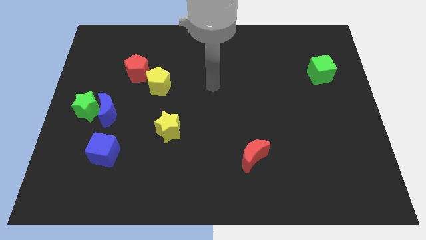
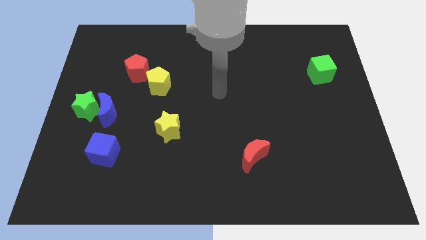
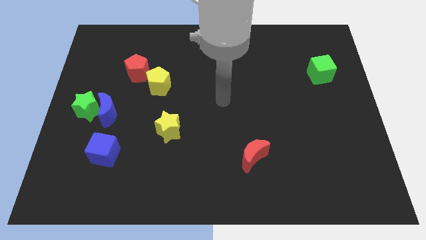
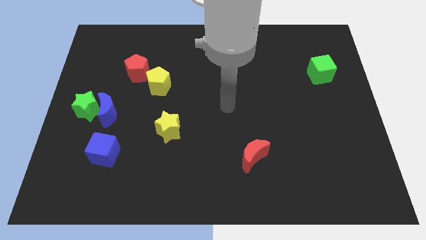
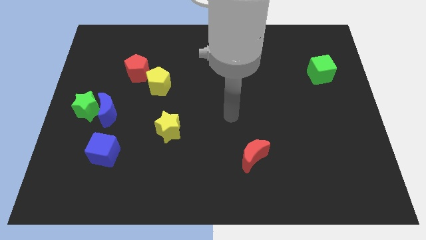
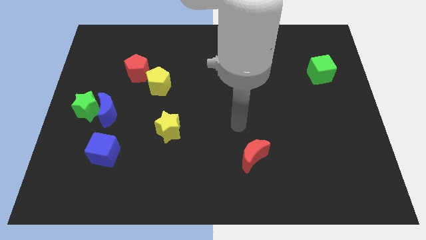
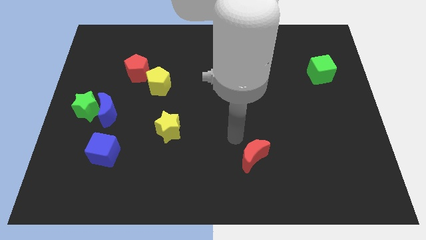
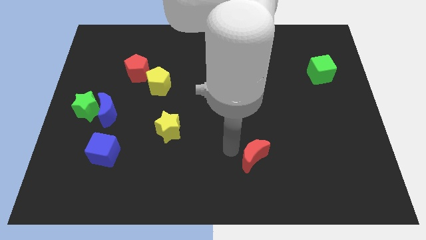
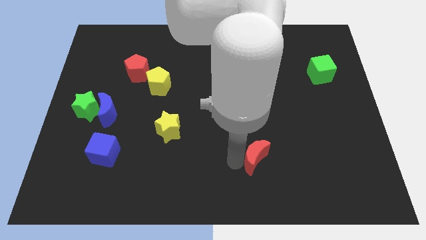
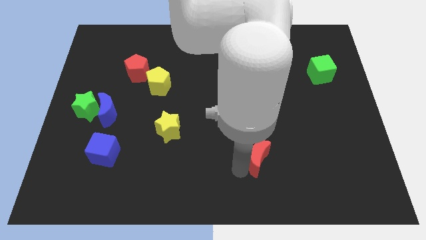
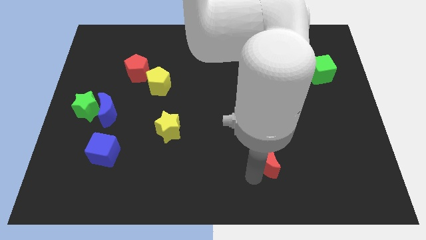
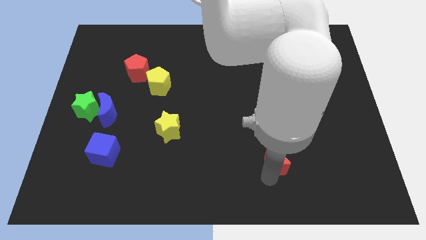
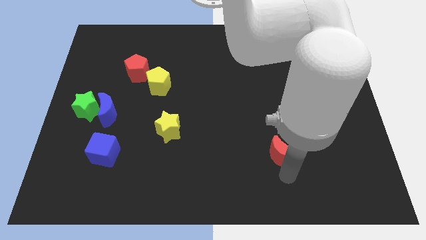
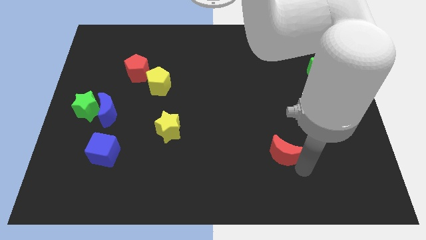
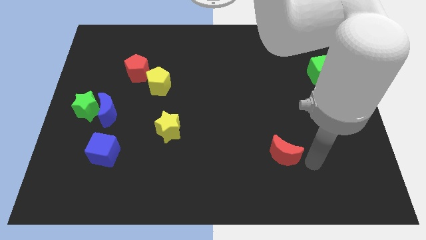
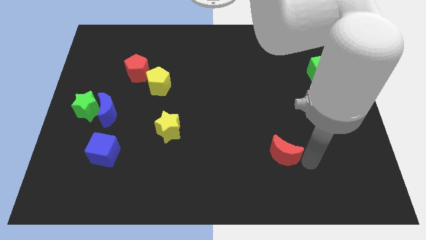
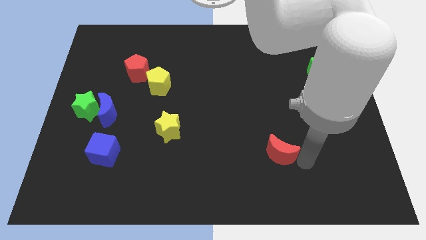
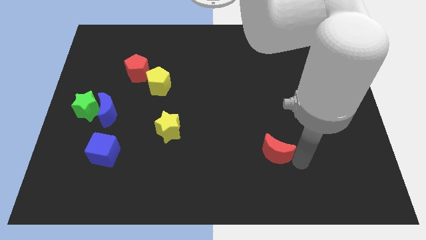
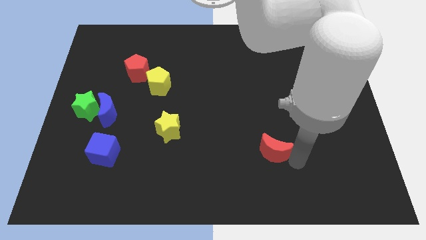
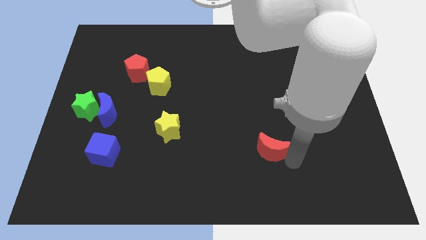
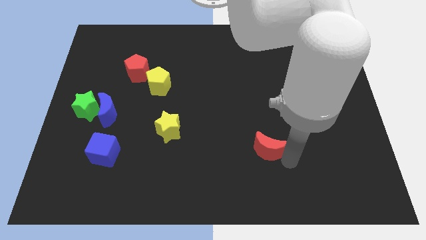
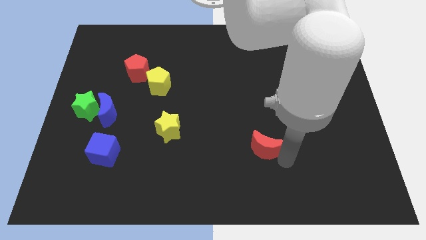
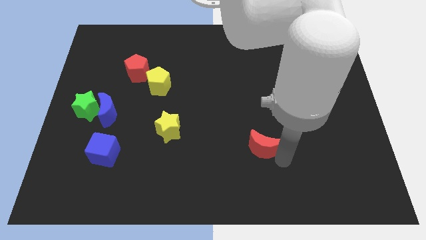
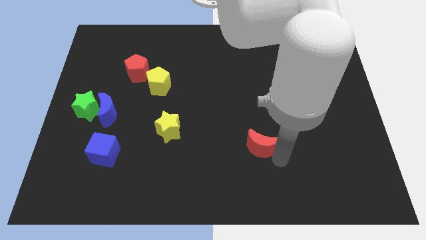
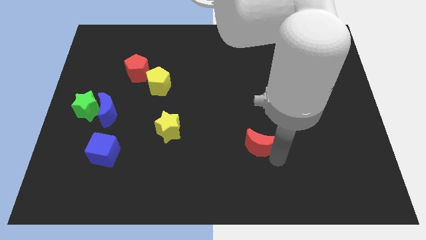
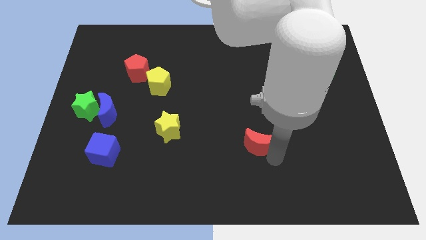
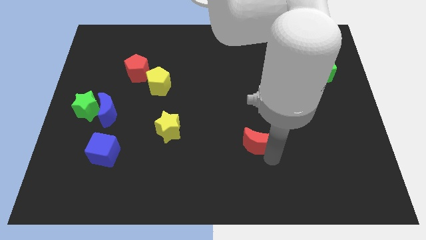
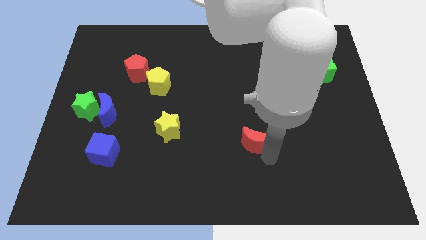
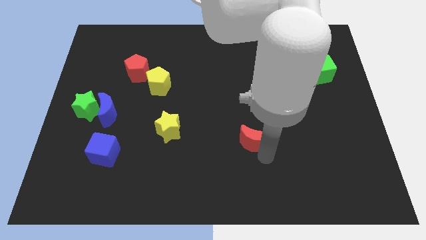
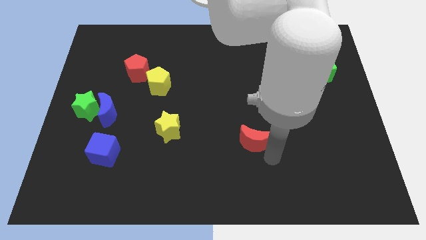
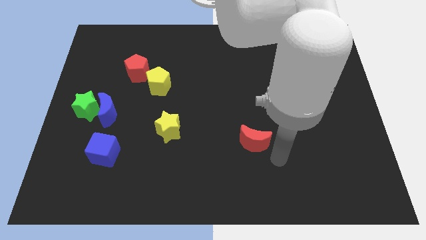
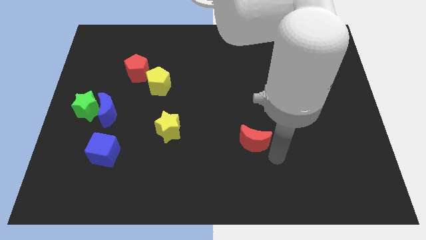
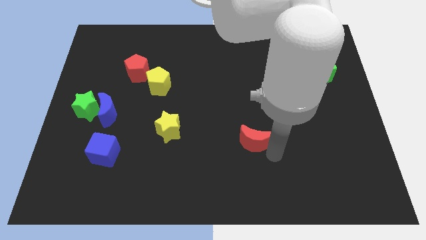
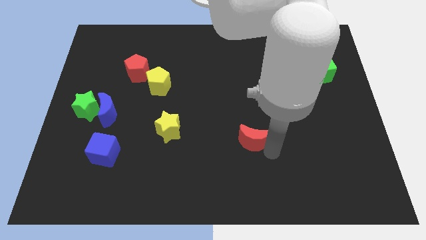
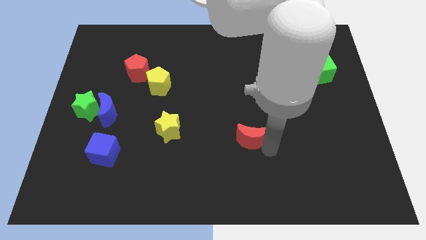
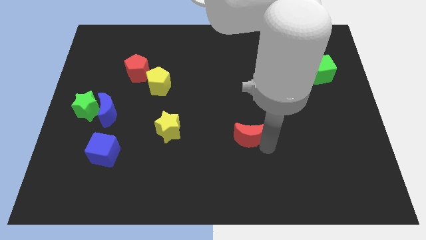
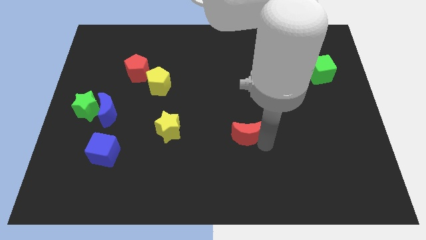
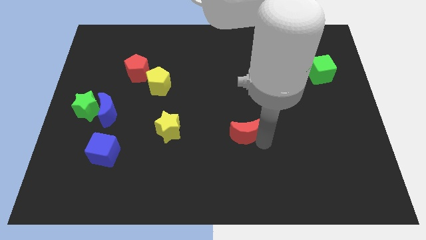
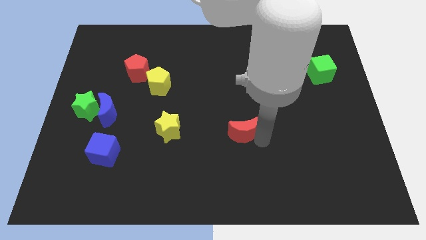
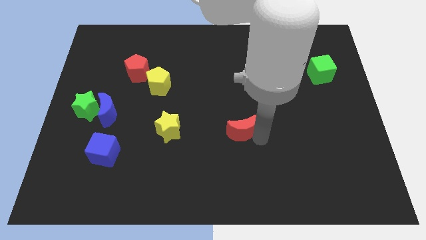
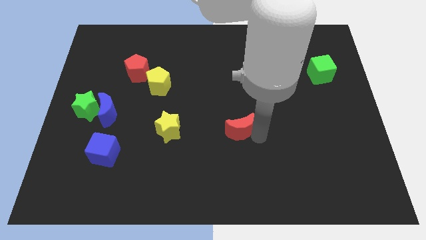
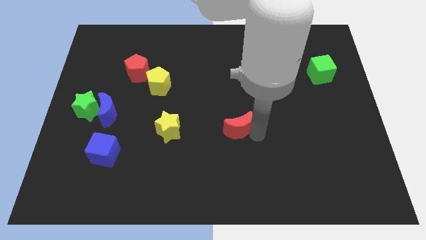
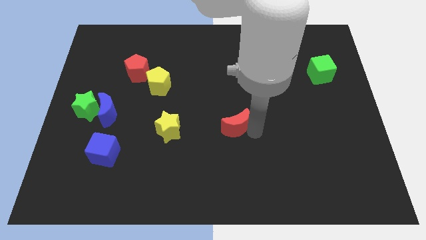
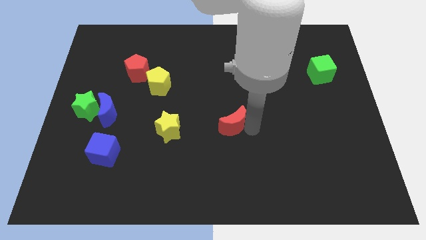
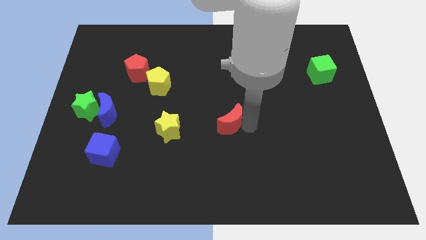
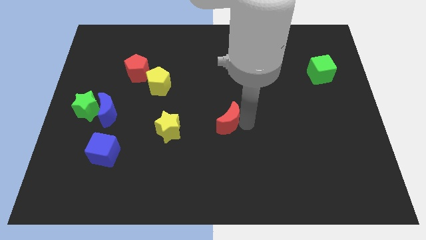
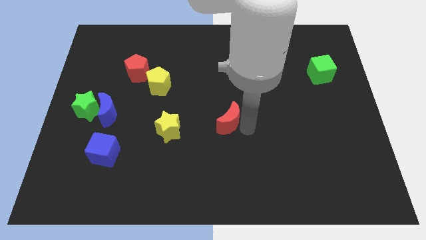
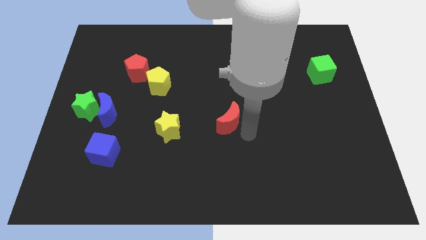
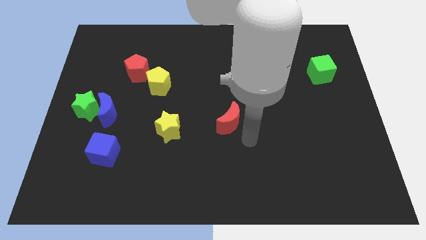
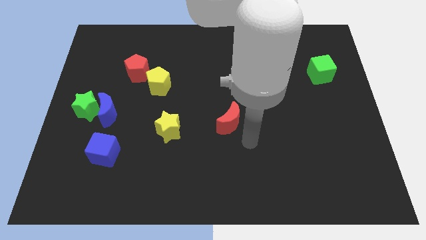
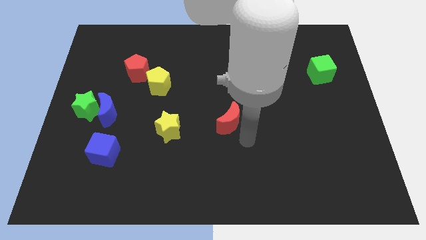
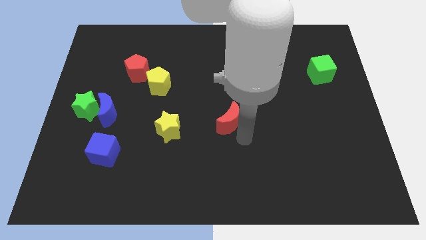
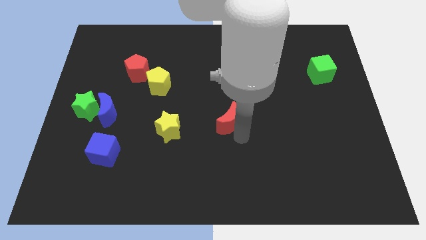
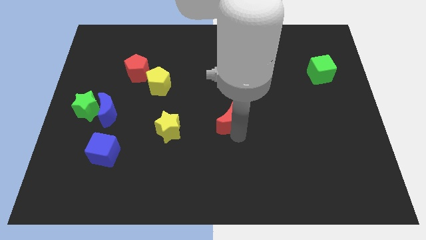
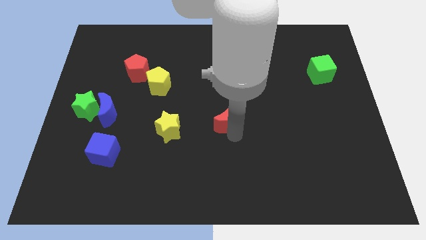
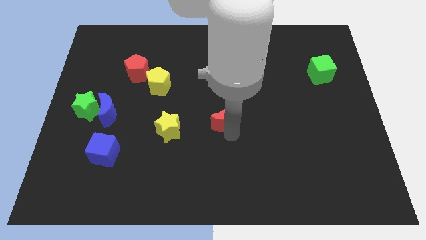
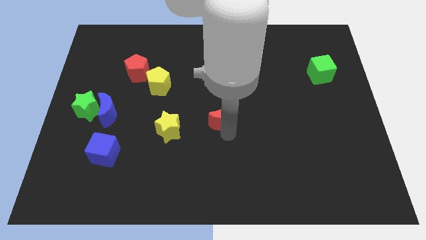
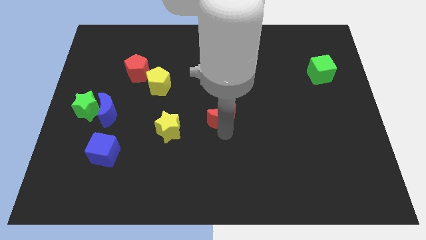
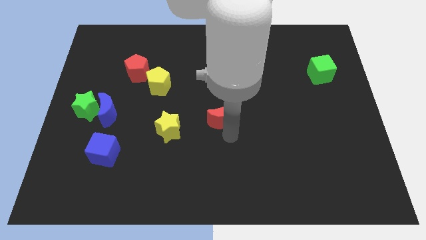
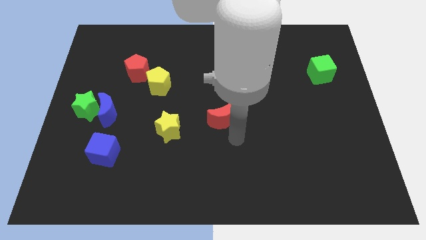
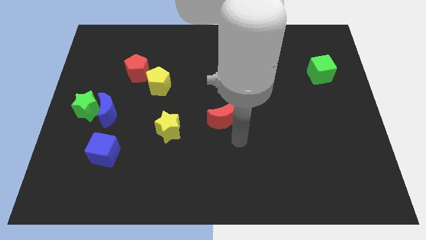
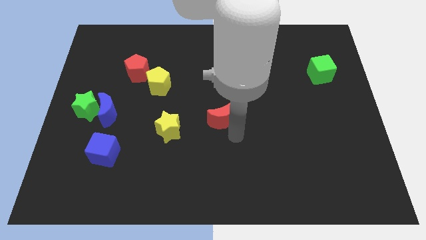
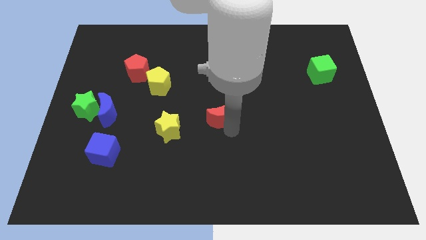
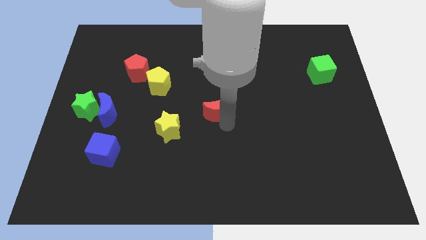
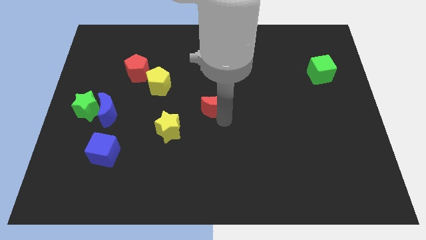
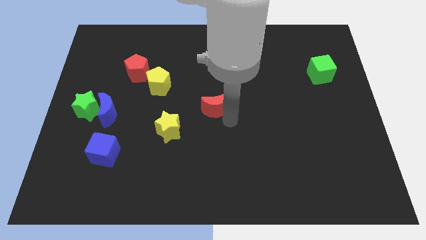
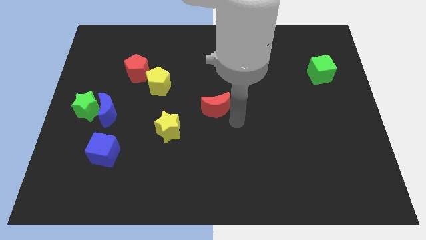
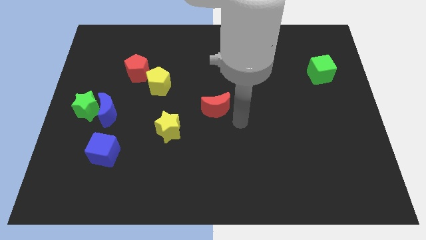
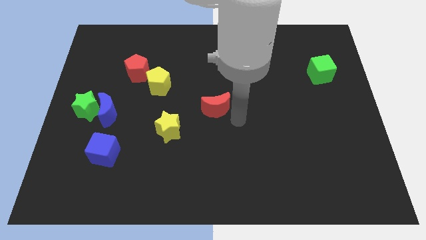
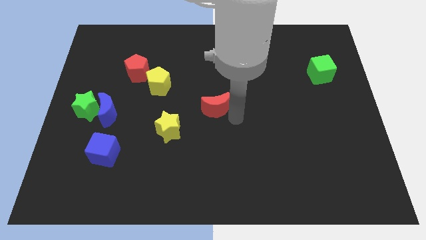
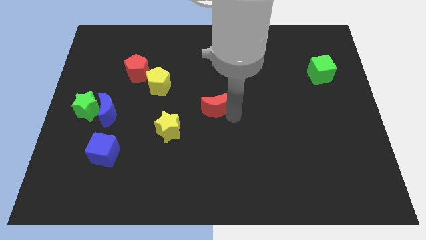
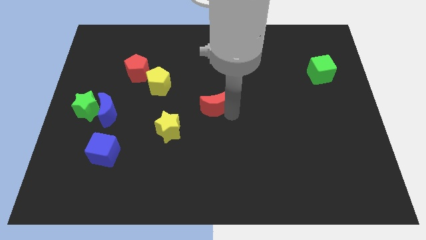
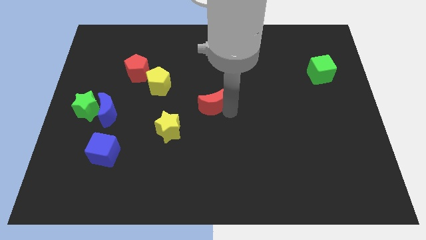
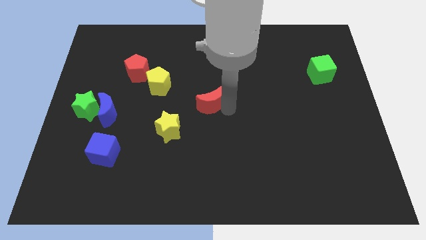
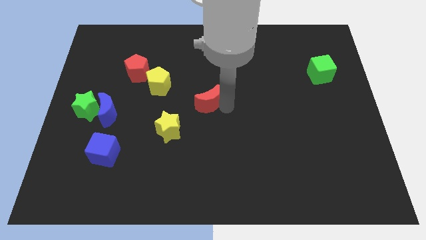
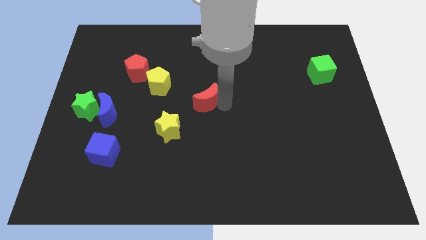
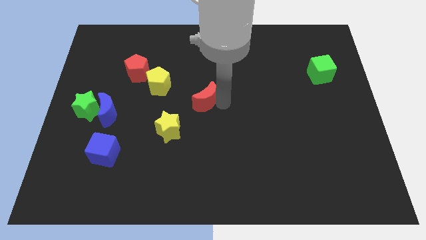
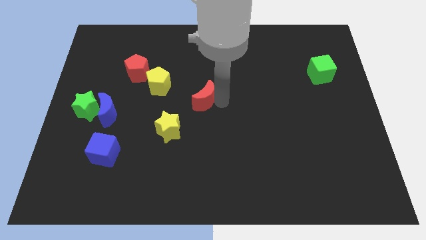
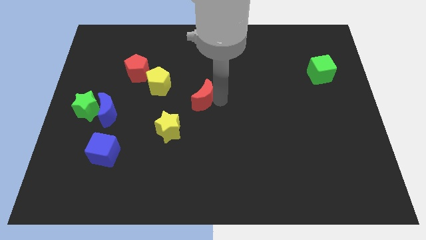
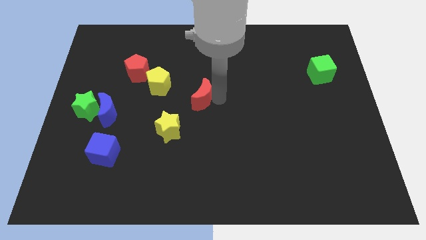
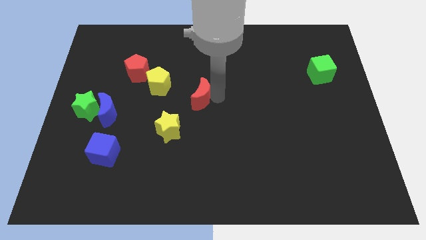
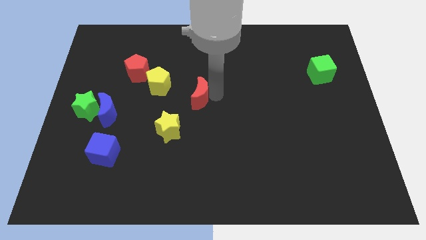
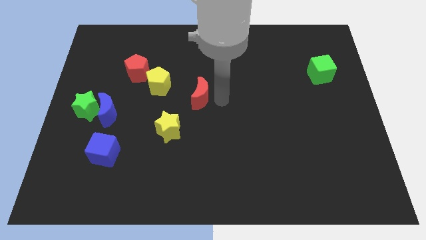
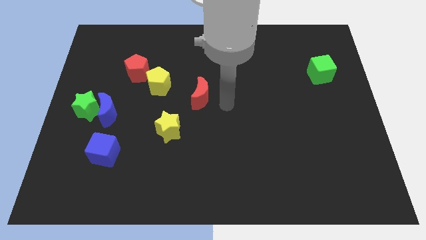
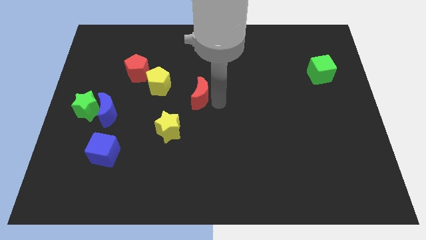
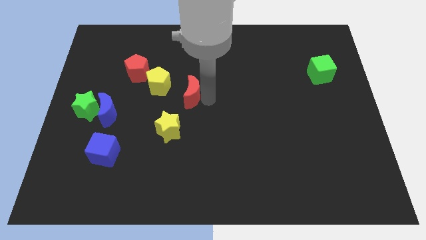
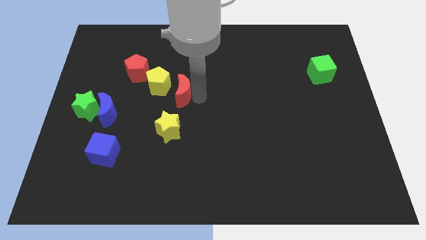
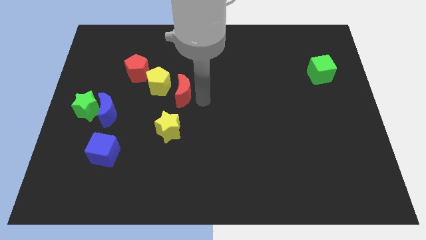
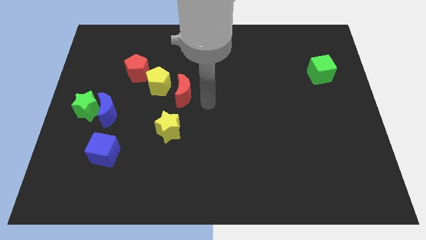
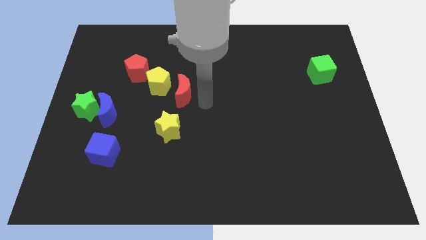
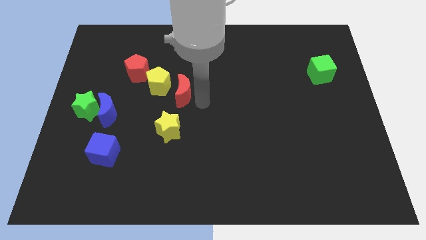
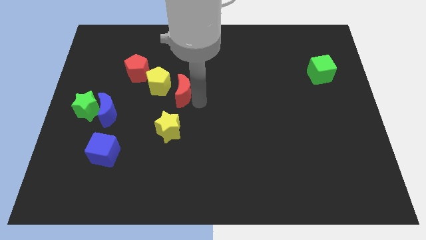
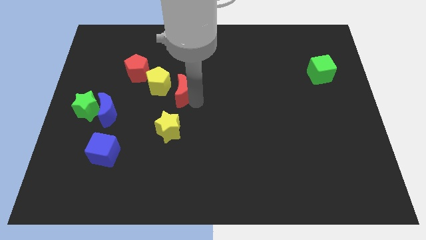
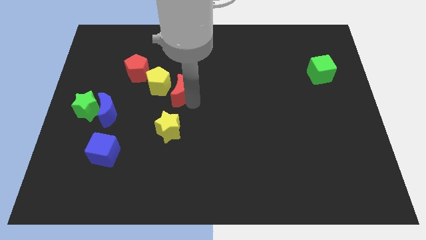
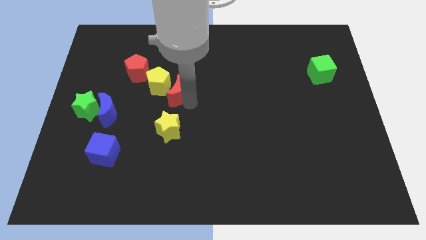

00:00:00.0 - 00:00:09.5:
move the red moon next to the yellow pentagon
